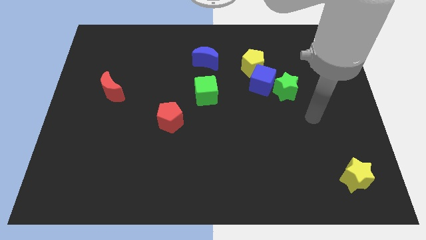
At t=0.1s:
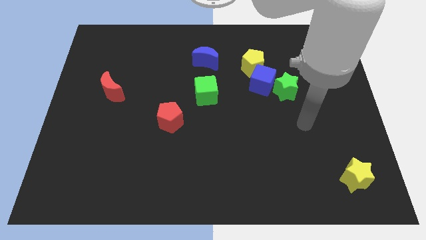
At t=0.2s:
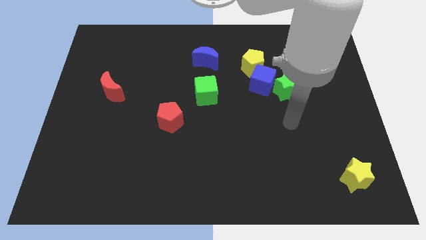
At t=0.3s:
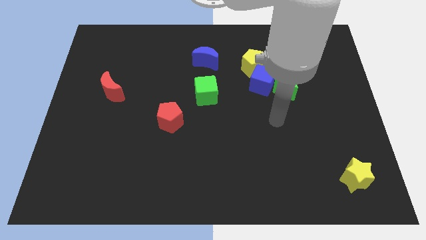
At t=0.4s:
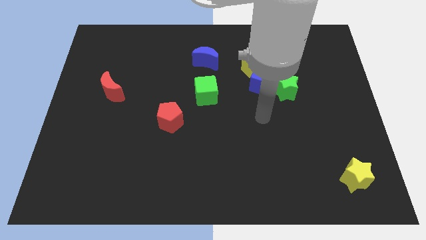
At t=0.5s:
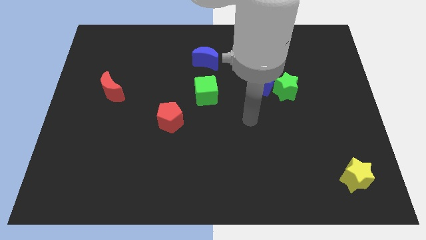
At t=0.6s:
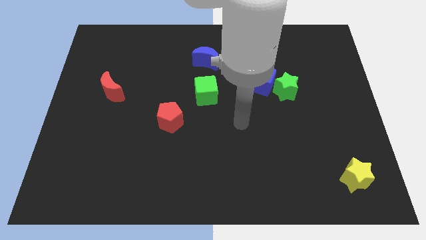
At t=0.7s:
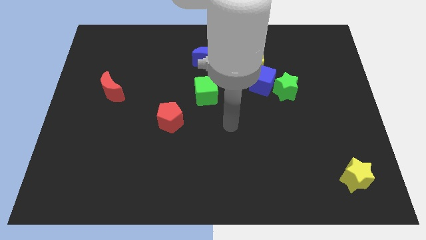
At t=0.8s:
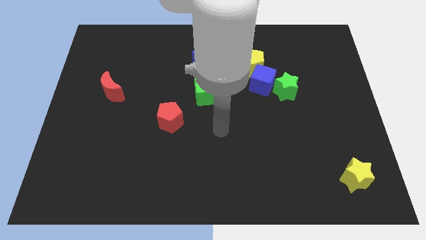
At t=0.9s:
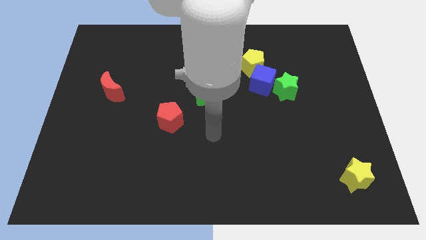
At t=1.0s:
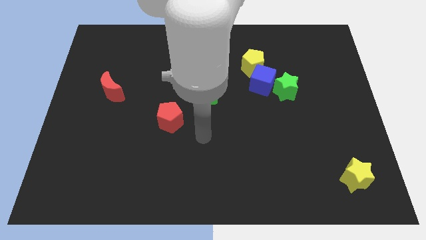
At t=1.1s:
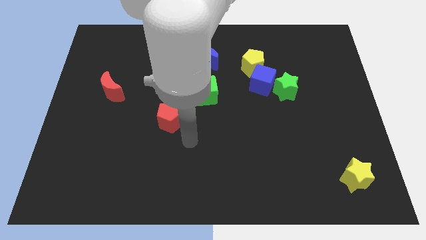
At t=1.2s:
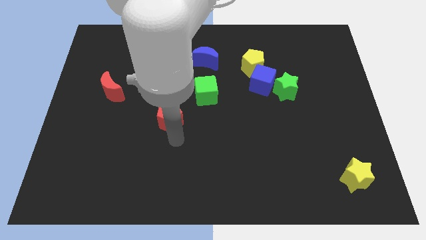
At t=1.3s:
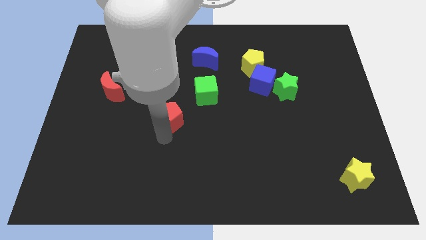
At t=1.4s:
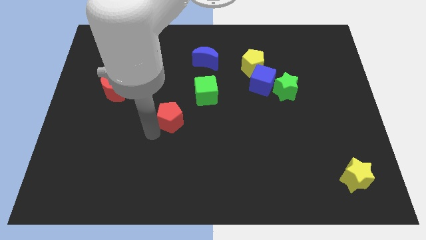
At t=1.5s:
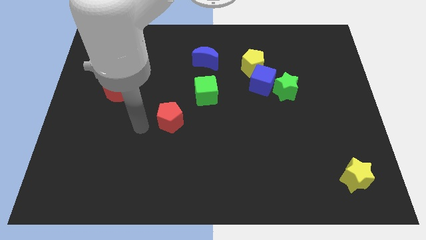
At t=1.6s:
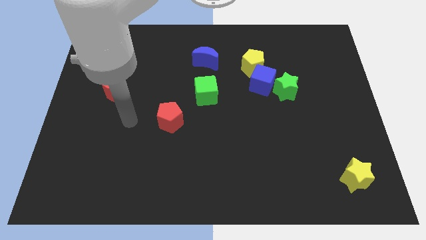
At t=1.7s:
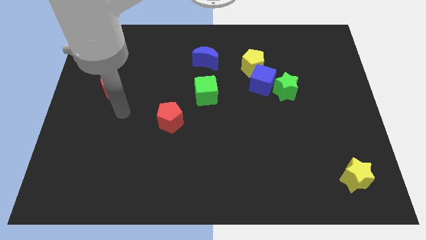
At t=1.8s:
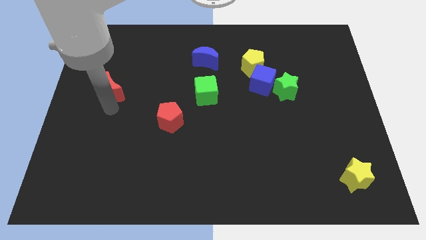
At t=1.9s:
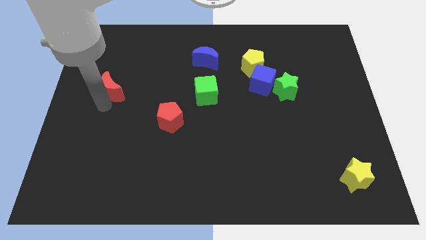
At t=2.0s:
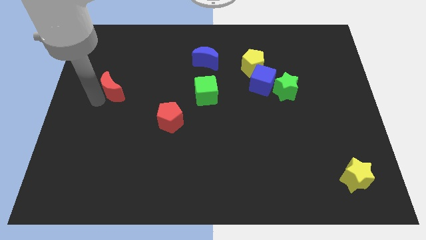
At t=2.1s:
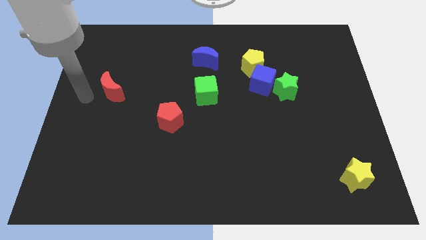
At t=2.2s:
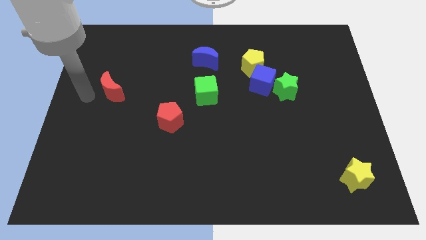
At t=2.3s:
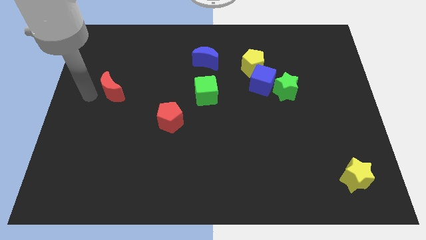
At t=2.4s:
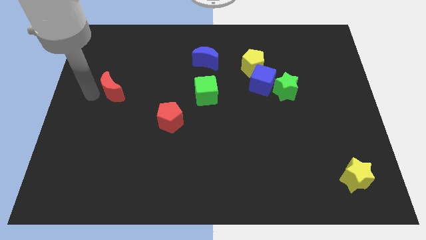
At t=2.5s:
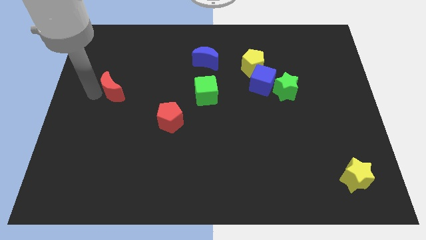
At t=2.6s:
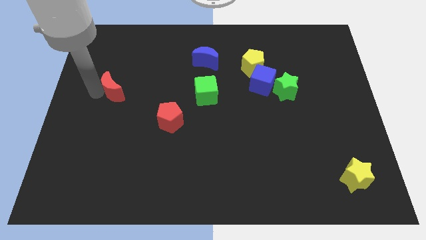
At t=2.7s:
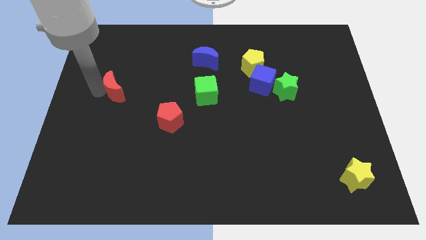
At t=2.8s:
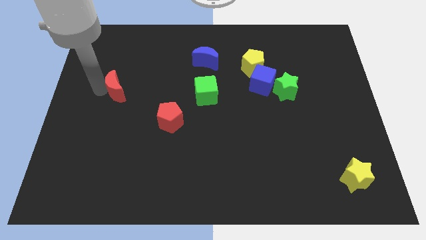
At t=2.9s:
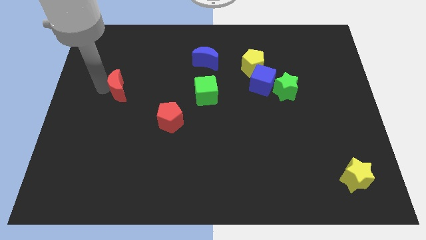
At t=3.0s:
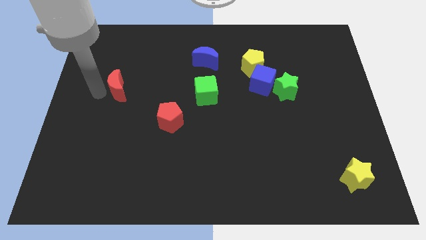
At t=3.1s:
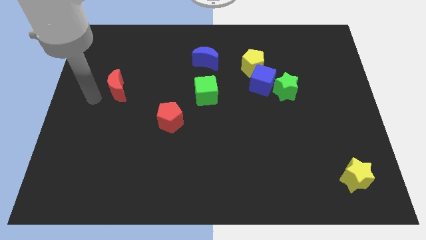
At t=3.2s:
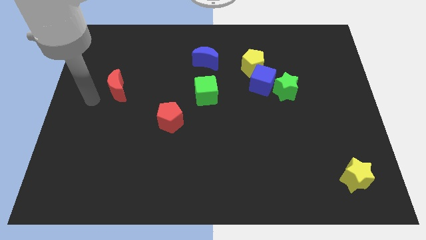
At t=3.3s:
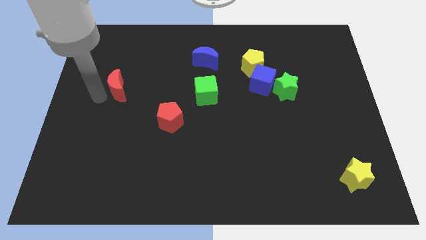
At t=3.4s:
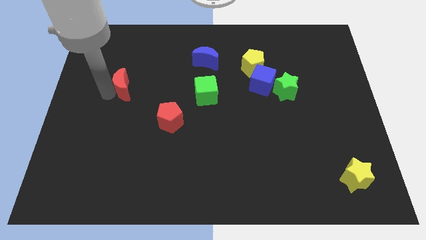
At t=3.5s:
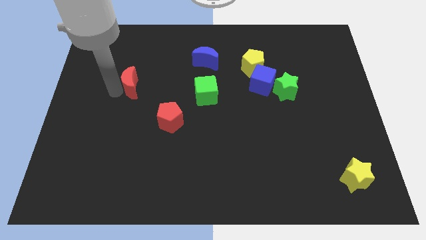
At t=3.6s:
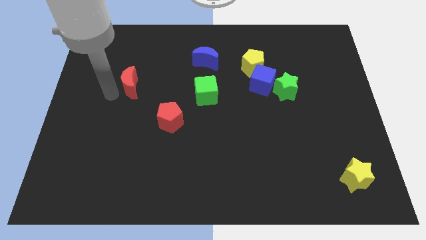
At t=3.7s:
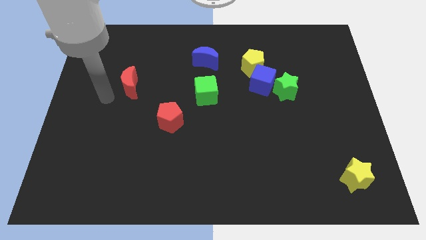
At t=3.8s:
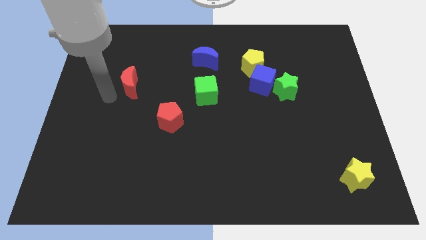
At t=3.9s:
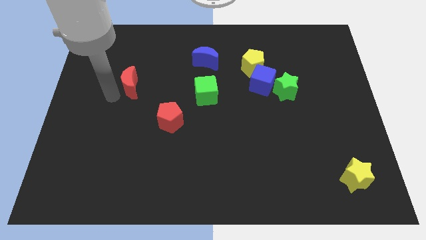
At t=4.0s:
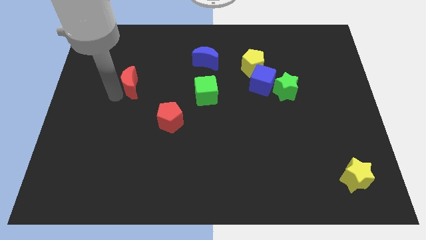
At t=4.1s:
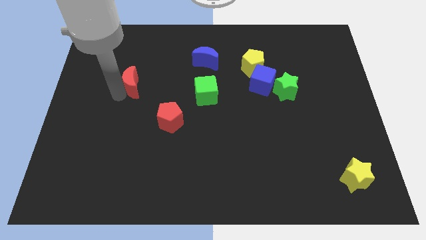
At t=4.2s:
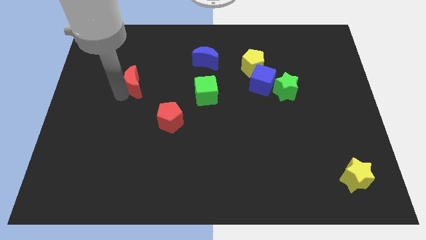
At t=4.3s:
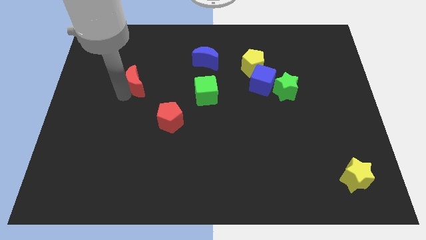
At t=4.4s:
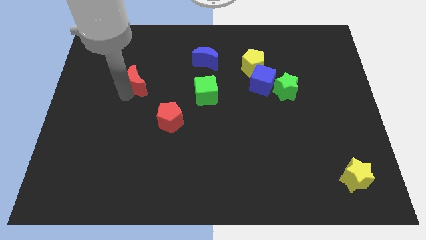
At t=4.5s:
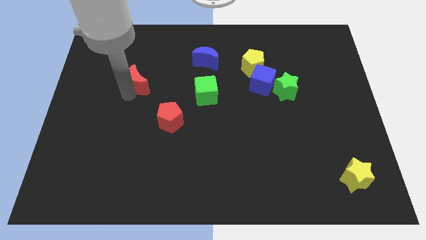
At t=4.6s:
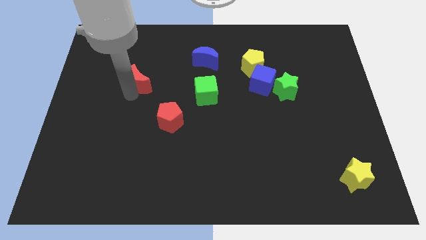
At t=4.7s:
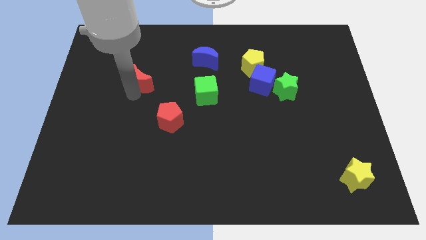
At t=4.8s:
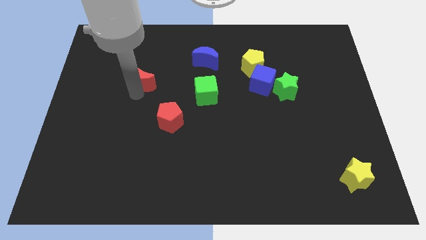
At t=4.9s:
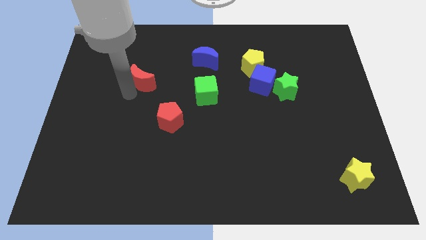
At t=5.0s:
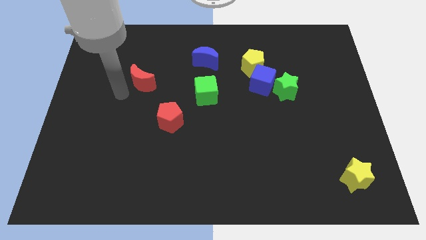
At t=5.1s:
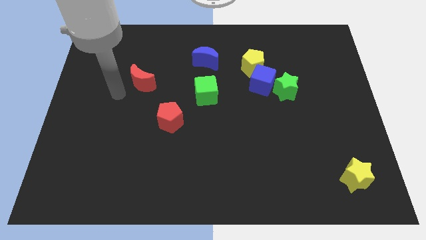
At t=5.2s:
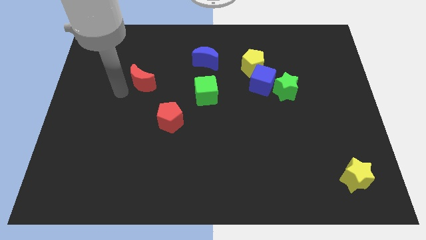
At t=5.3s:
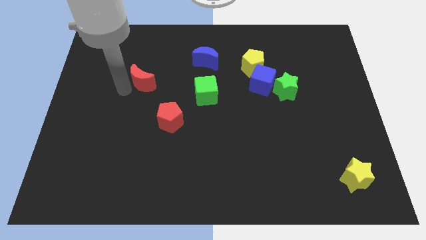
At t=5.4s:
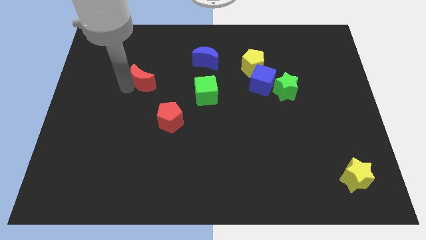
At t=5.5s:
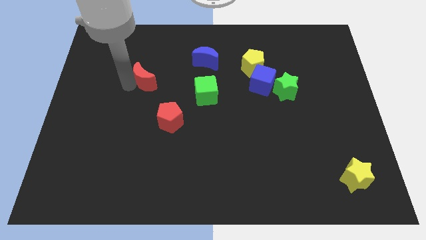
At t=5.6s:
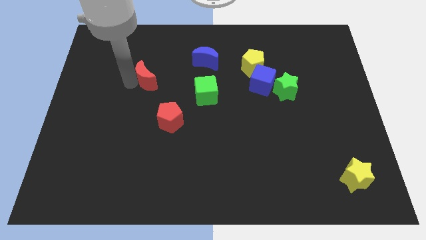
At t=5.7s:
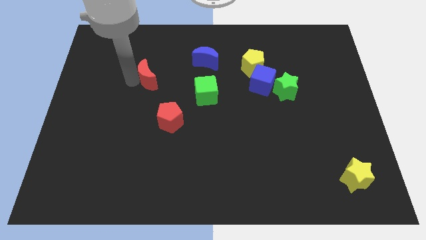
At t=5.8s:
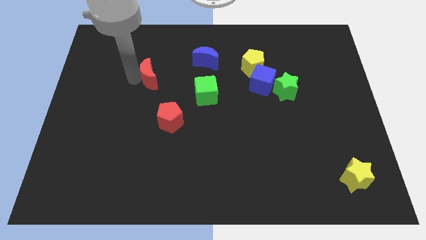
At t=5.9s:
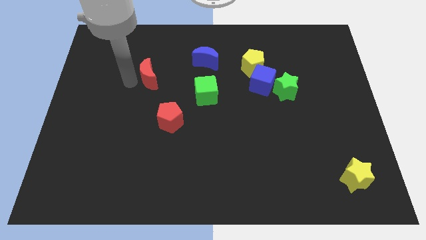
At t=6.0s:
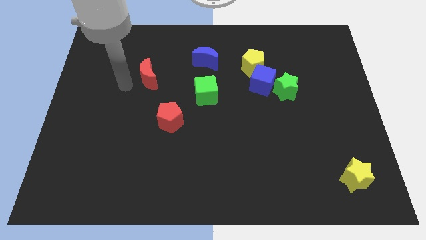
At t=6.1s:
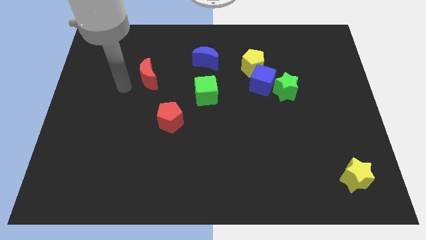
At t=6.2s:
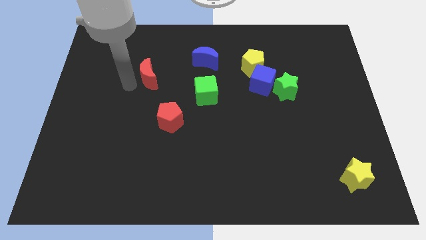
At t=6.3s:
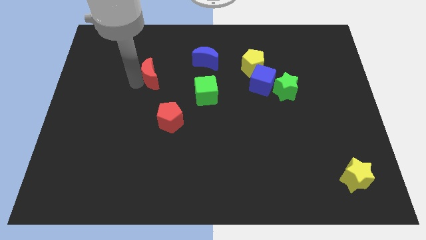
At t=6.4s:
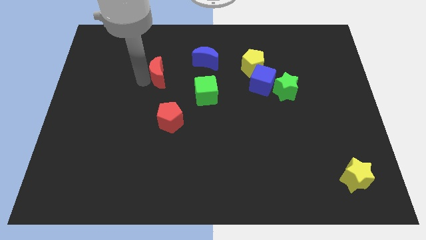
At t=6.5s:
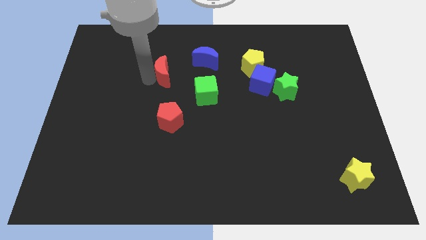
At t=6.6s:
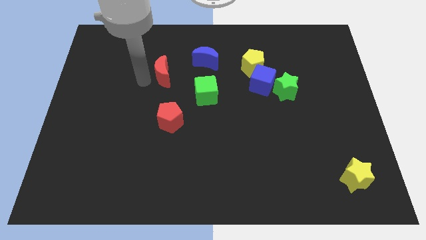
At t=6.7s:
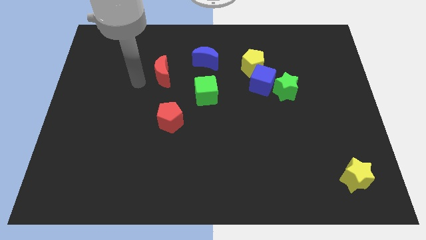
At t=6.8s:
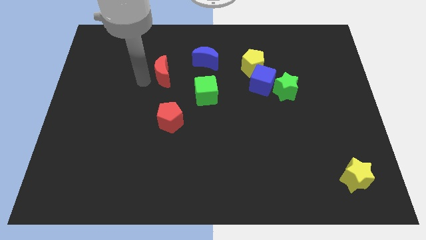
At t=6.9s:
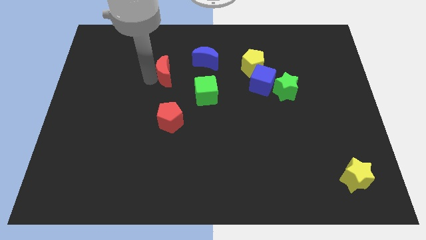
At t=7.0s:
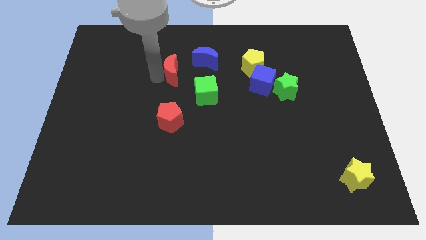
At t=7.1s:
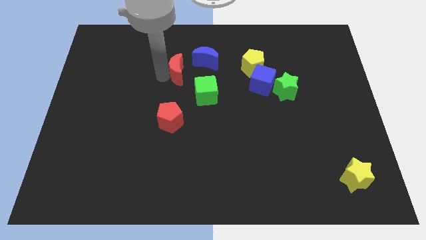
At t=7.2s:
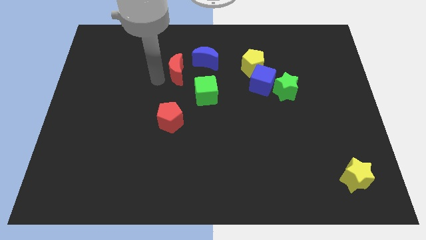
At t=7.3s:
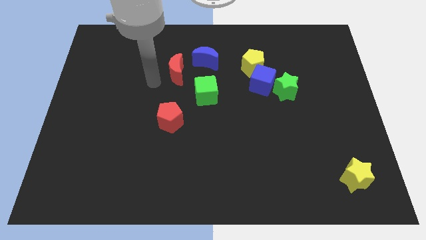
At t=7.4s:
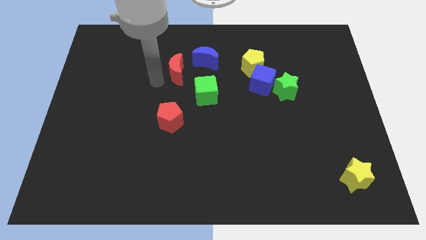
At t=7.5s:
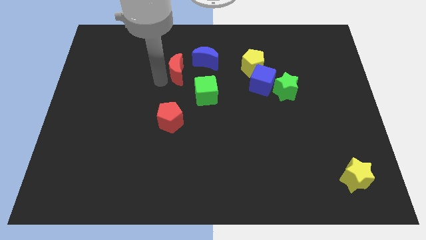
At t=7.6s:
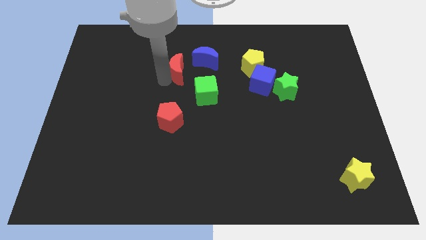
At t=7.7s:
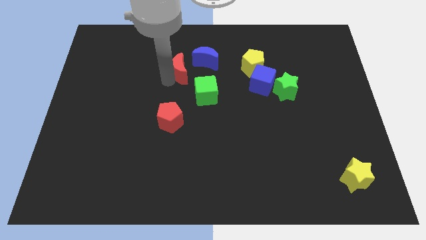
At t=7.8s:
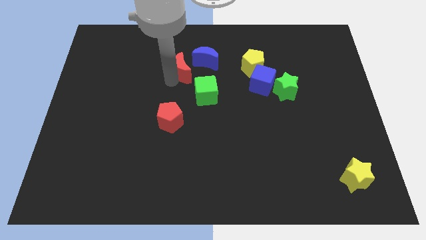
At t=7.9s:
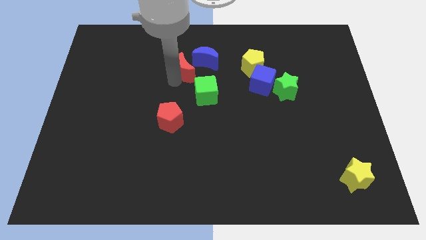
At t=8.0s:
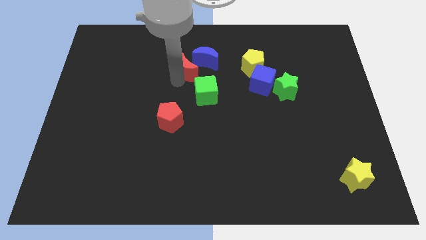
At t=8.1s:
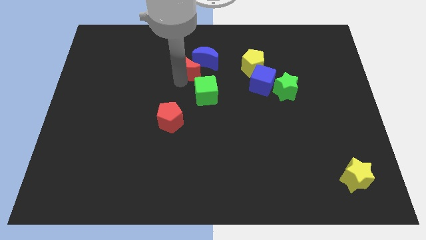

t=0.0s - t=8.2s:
move the red moon towards the blue moon
